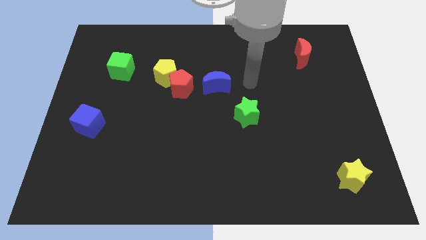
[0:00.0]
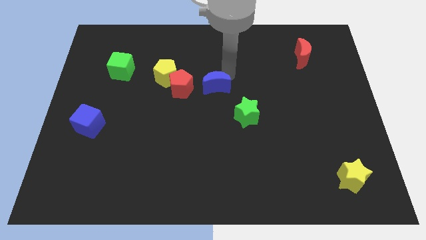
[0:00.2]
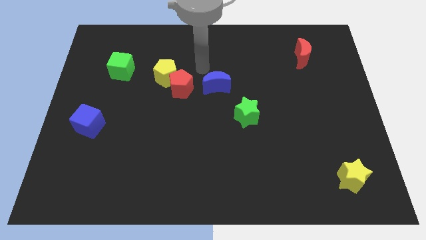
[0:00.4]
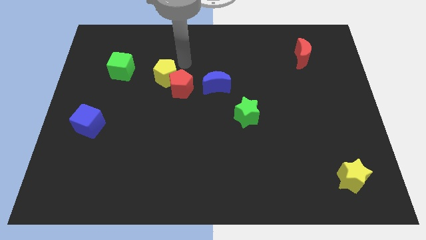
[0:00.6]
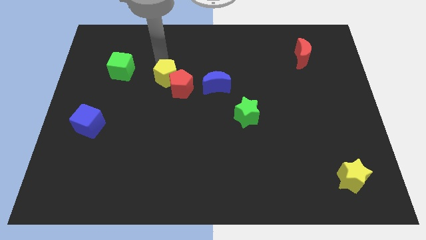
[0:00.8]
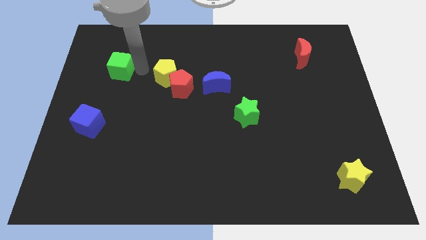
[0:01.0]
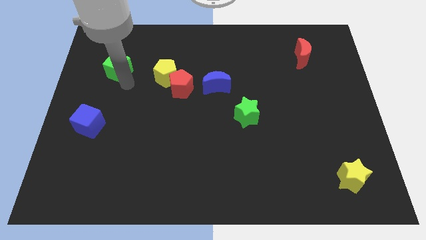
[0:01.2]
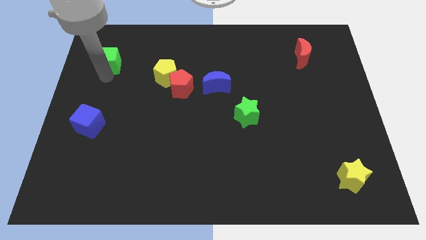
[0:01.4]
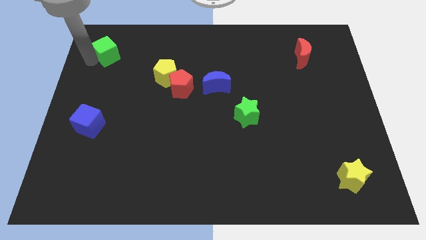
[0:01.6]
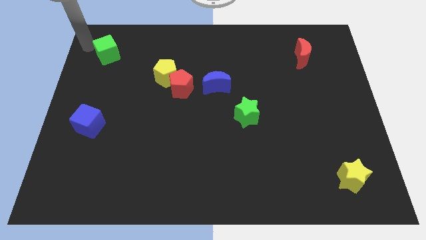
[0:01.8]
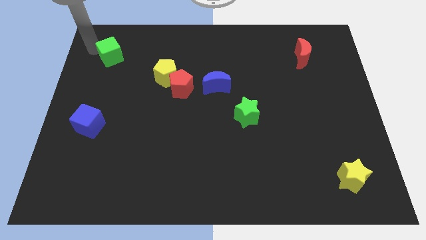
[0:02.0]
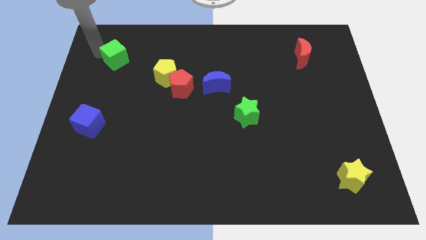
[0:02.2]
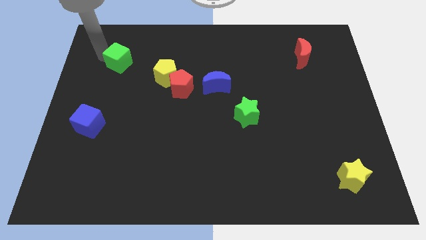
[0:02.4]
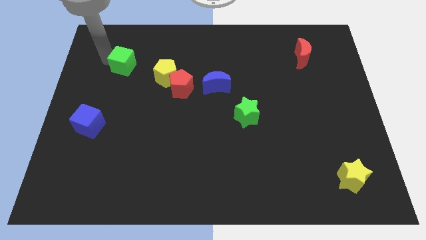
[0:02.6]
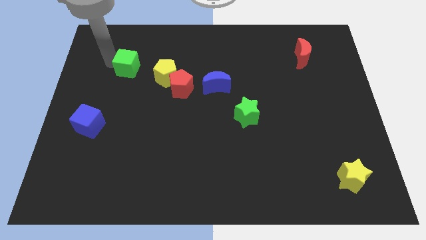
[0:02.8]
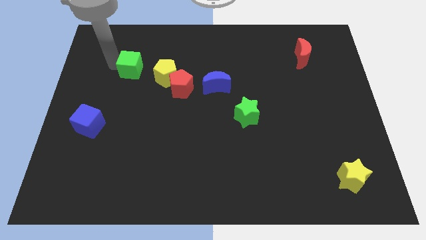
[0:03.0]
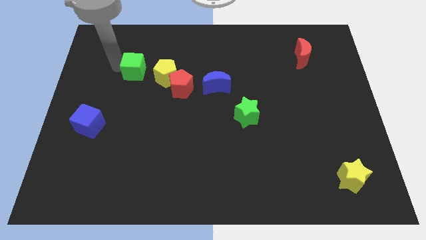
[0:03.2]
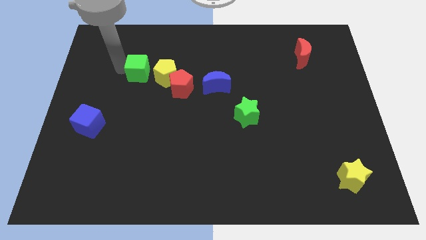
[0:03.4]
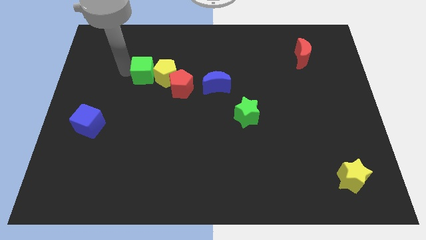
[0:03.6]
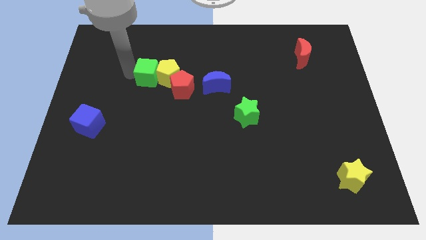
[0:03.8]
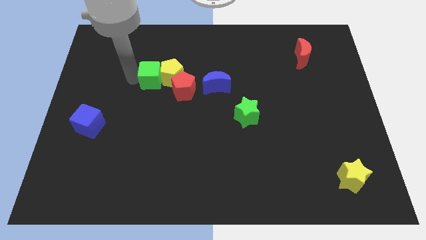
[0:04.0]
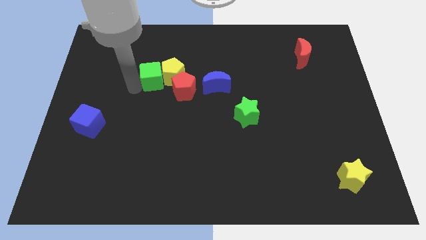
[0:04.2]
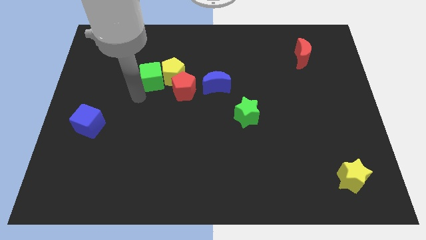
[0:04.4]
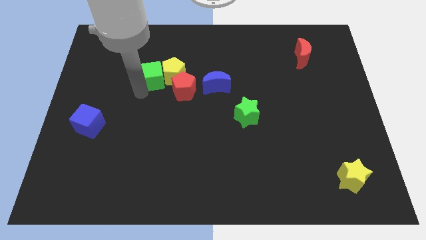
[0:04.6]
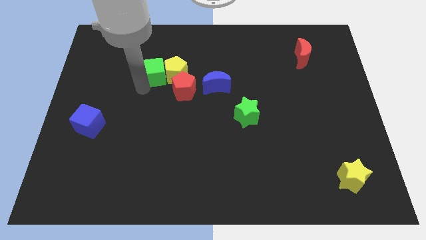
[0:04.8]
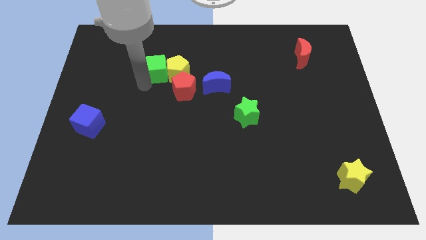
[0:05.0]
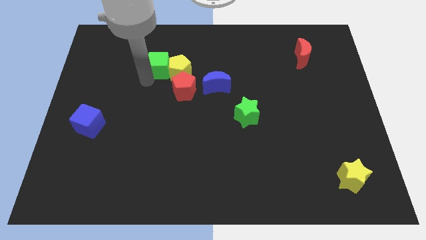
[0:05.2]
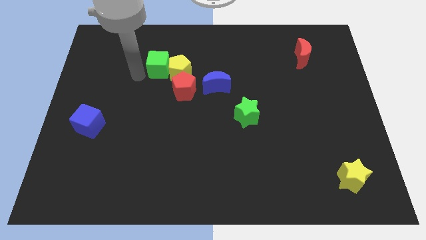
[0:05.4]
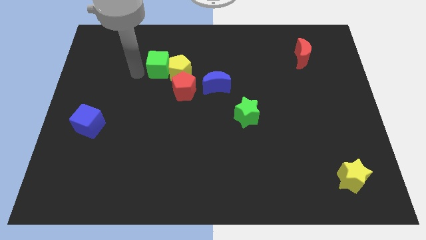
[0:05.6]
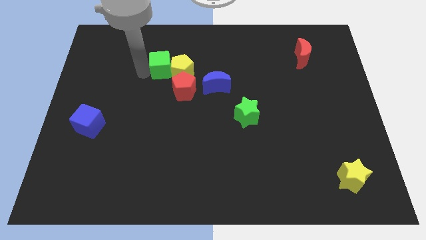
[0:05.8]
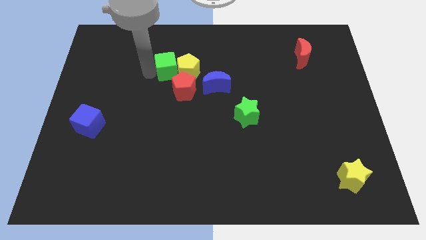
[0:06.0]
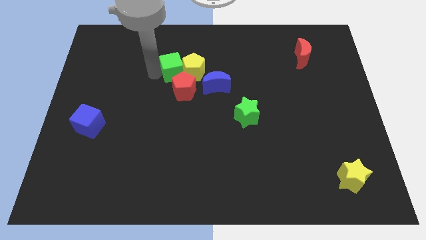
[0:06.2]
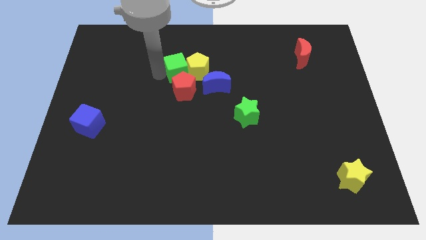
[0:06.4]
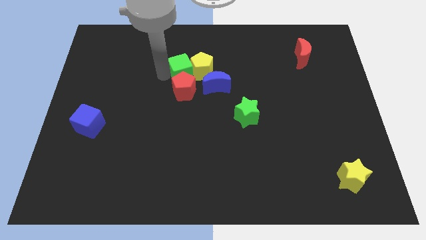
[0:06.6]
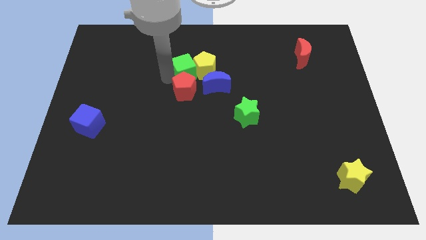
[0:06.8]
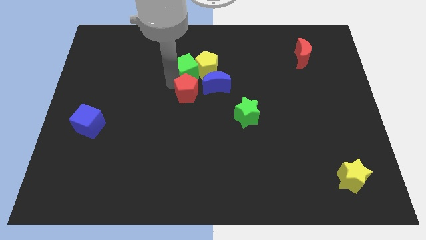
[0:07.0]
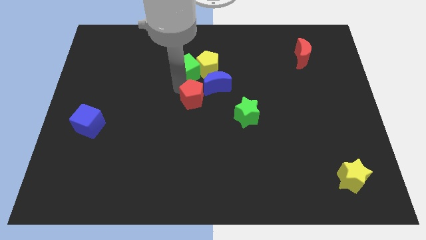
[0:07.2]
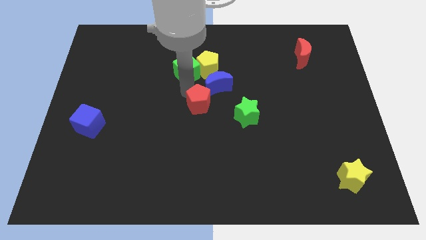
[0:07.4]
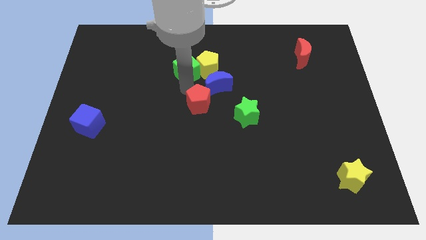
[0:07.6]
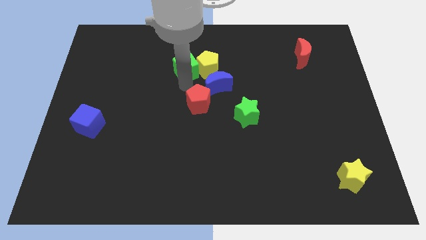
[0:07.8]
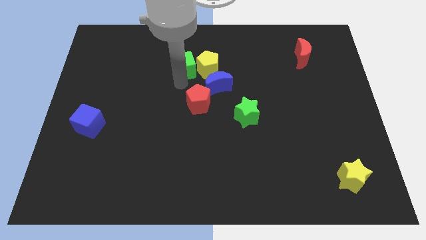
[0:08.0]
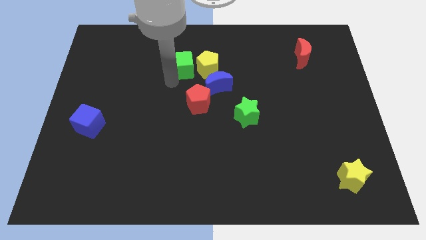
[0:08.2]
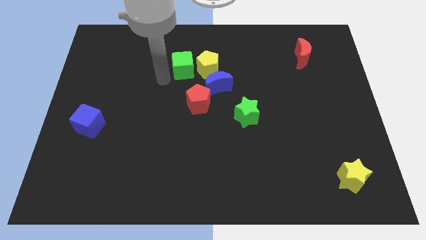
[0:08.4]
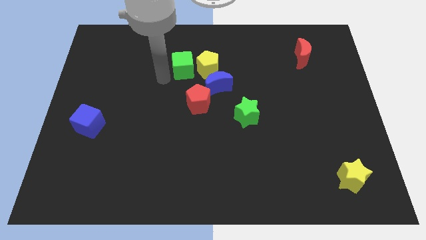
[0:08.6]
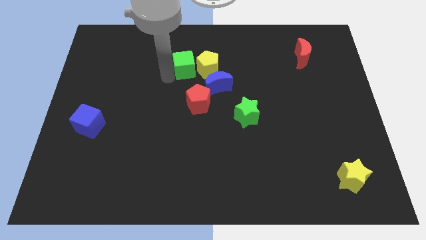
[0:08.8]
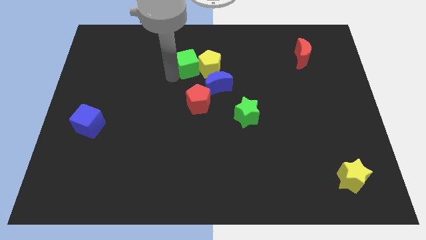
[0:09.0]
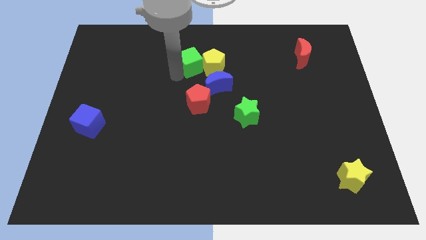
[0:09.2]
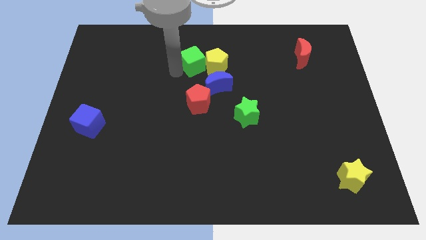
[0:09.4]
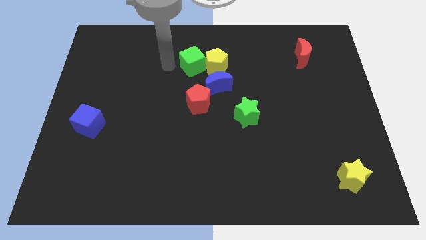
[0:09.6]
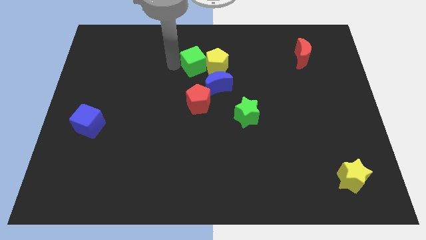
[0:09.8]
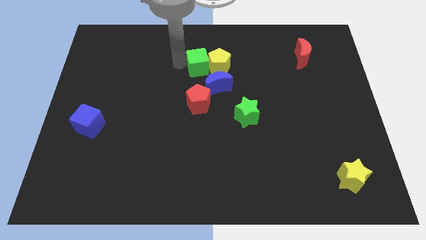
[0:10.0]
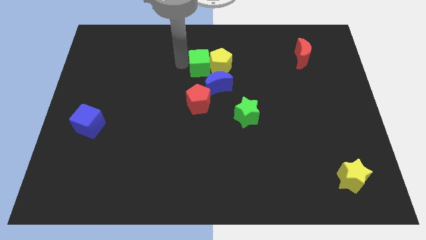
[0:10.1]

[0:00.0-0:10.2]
push the green cube to the right

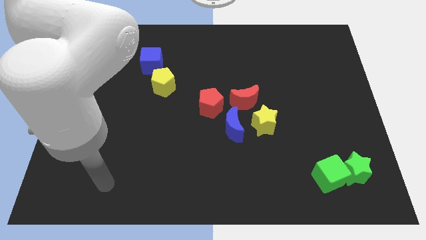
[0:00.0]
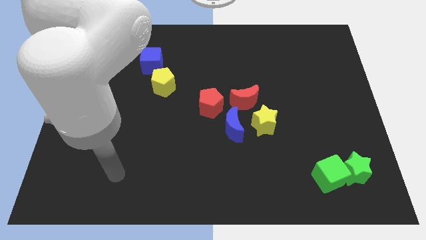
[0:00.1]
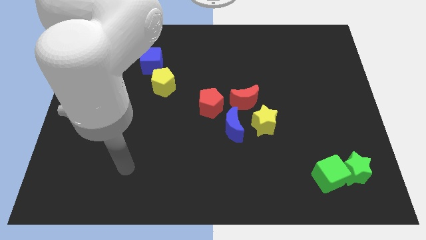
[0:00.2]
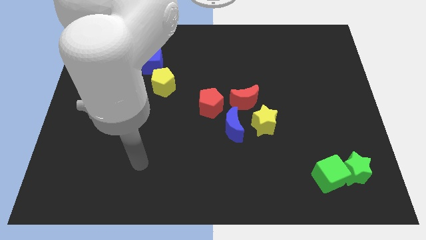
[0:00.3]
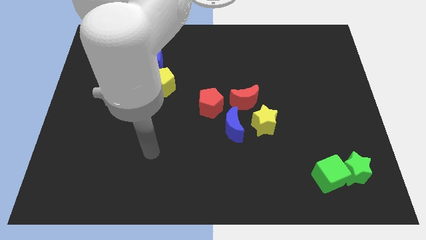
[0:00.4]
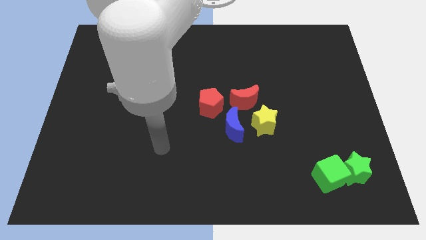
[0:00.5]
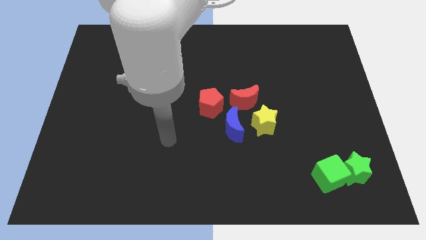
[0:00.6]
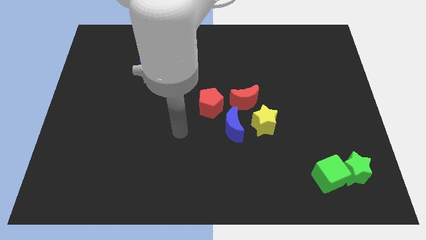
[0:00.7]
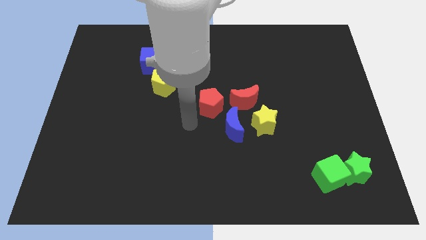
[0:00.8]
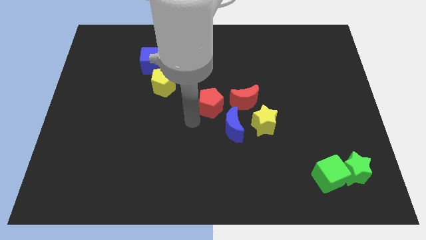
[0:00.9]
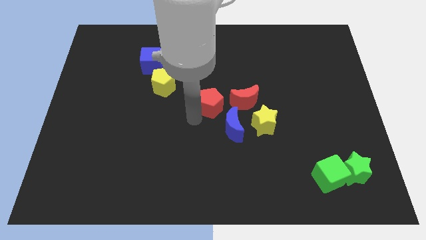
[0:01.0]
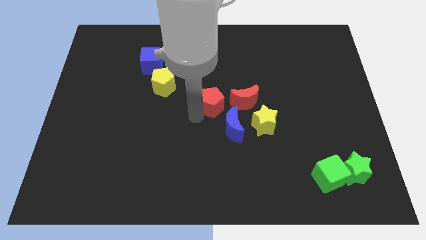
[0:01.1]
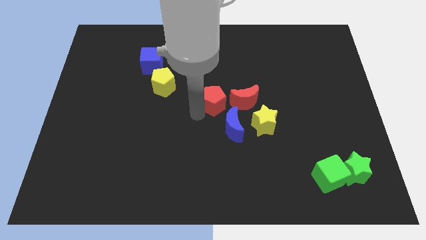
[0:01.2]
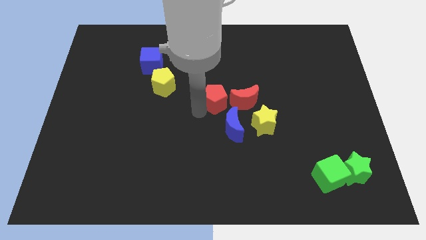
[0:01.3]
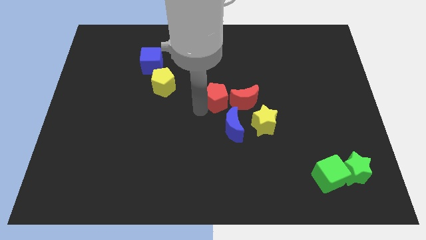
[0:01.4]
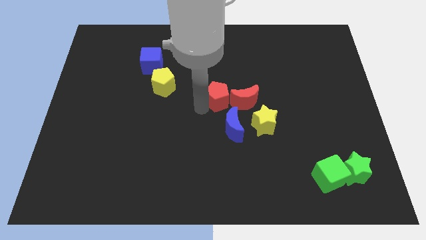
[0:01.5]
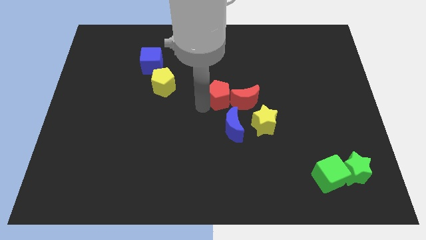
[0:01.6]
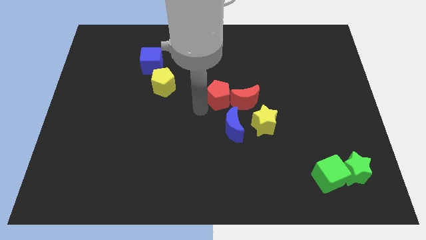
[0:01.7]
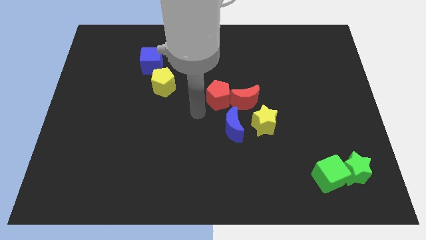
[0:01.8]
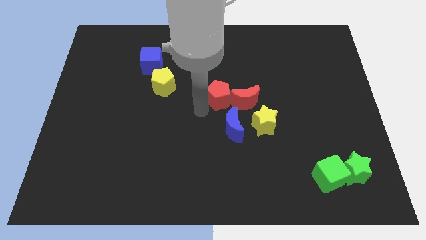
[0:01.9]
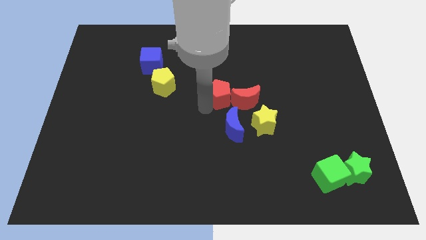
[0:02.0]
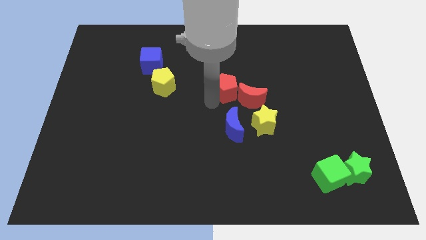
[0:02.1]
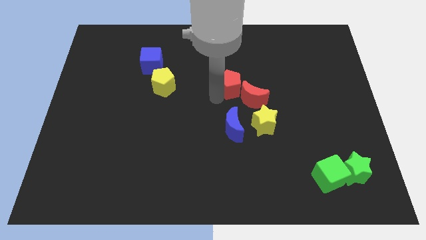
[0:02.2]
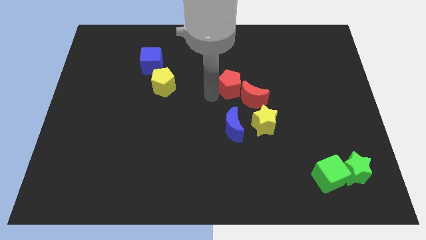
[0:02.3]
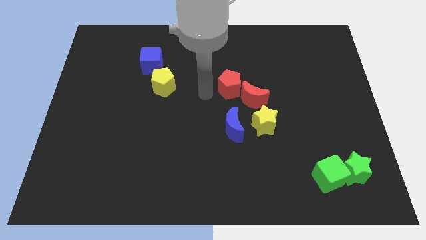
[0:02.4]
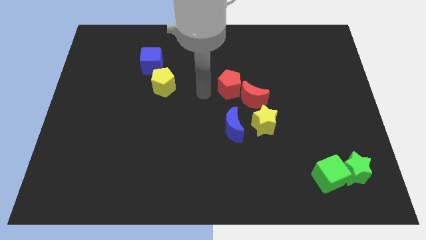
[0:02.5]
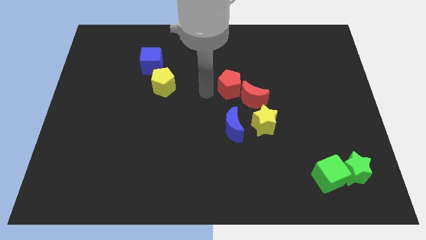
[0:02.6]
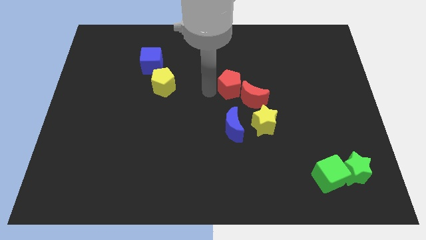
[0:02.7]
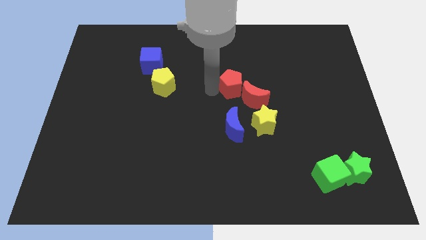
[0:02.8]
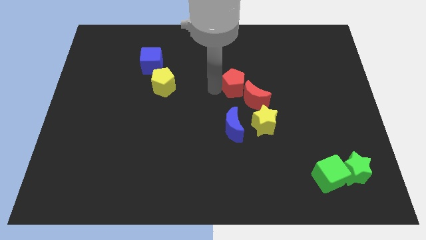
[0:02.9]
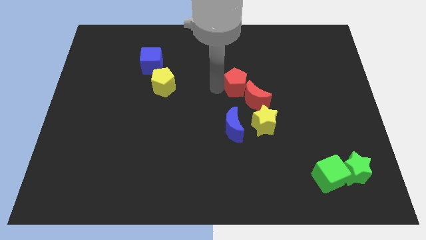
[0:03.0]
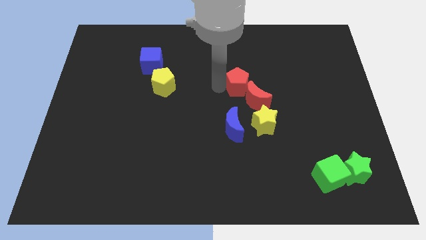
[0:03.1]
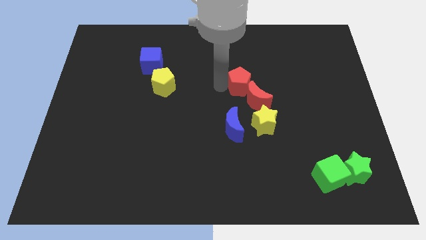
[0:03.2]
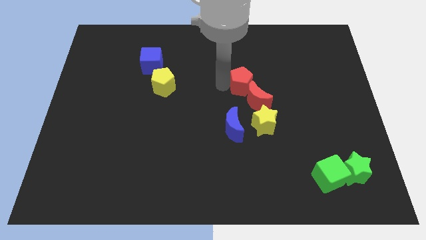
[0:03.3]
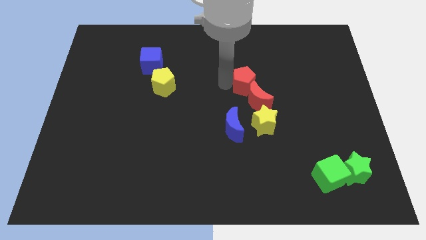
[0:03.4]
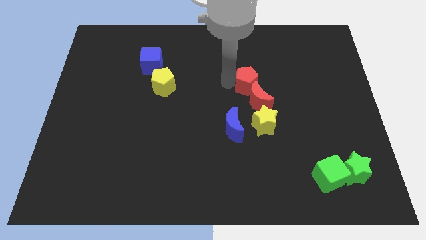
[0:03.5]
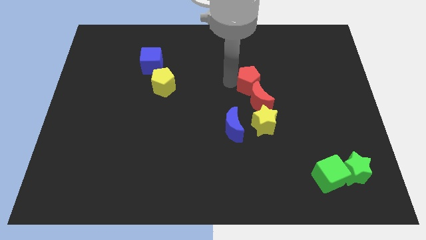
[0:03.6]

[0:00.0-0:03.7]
slide the red pentagon right a bit
